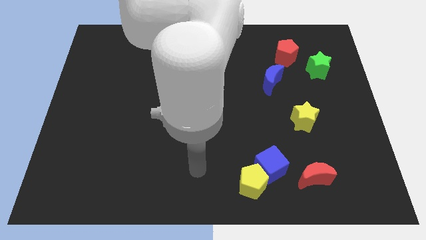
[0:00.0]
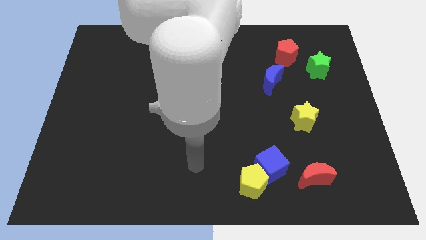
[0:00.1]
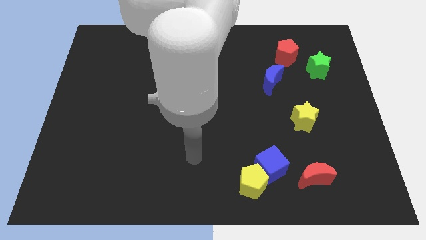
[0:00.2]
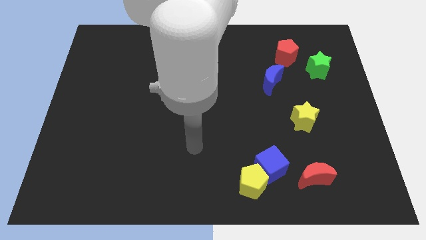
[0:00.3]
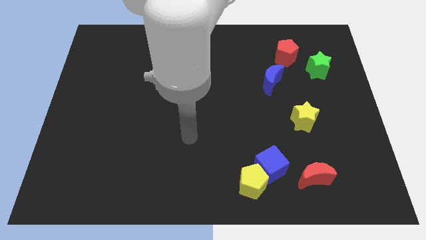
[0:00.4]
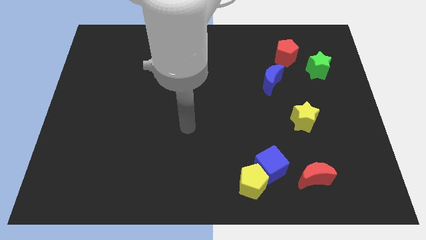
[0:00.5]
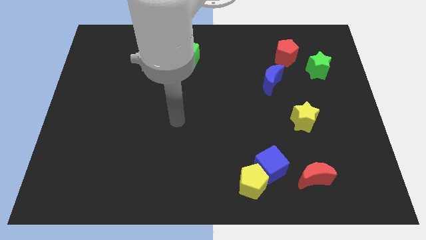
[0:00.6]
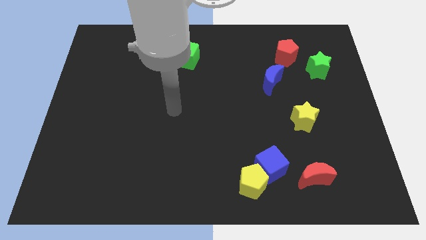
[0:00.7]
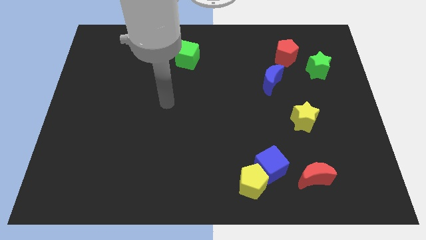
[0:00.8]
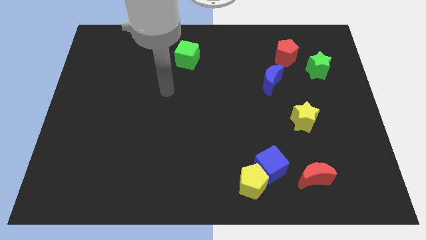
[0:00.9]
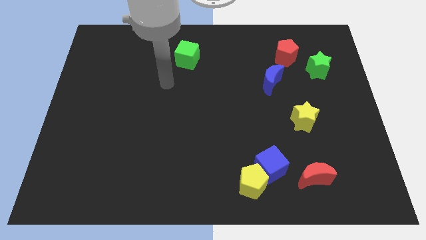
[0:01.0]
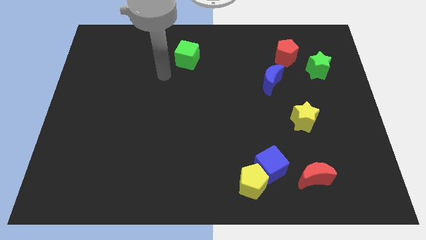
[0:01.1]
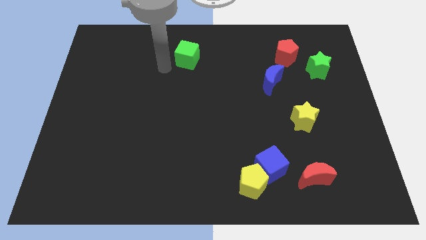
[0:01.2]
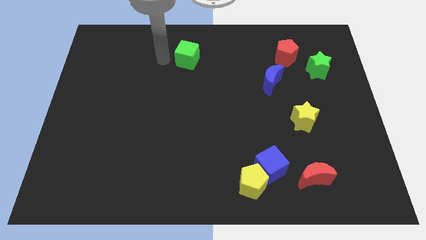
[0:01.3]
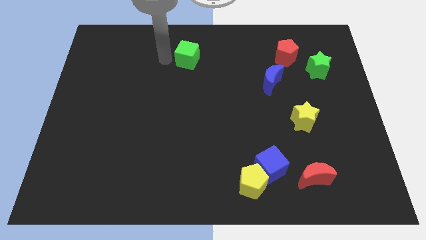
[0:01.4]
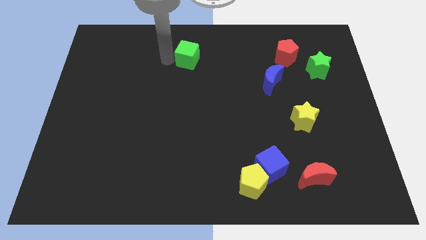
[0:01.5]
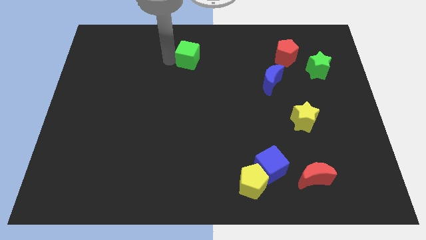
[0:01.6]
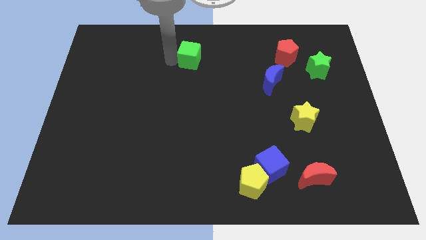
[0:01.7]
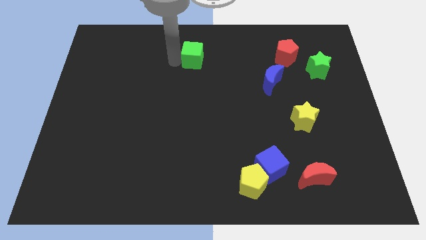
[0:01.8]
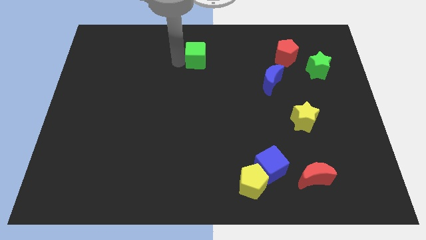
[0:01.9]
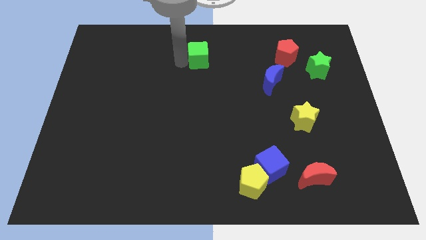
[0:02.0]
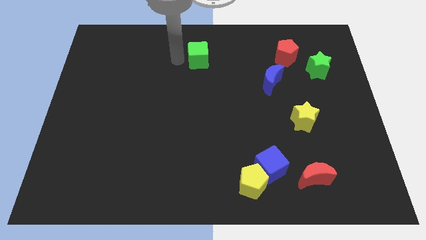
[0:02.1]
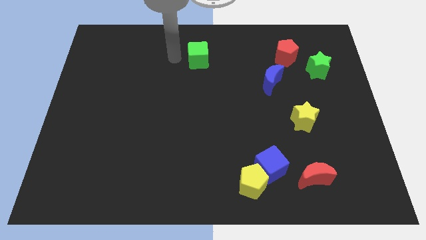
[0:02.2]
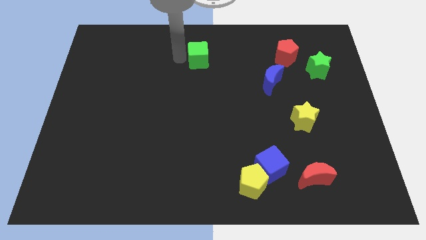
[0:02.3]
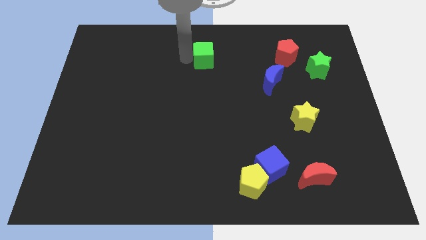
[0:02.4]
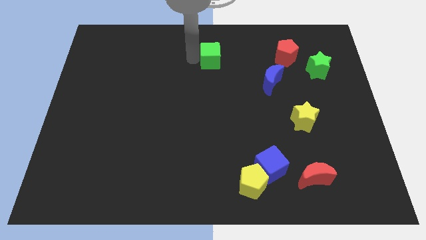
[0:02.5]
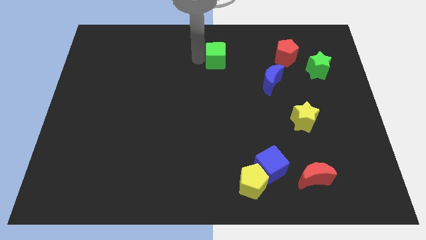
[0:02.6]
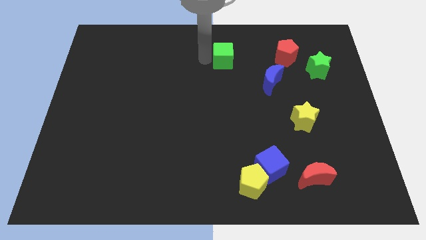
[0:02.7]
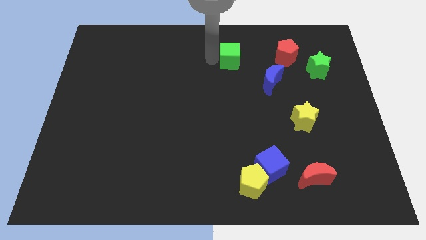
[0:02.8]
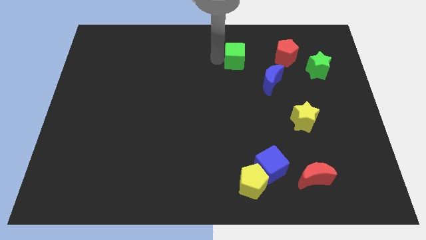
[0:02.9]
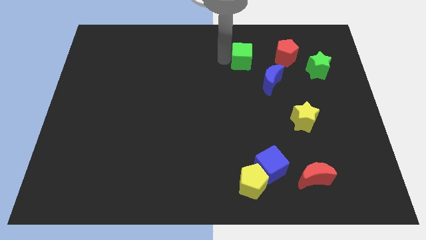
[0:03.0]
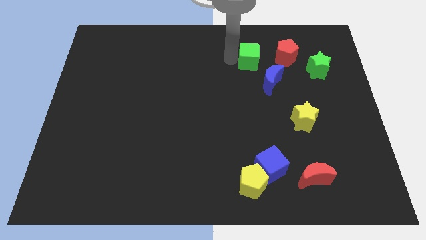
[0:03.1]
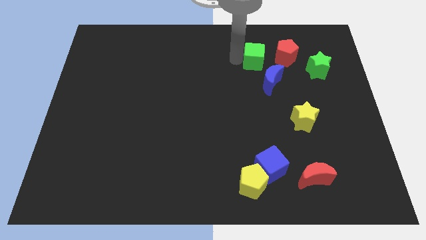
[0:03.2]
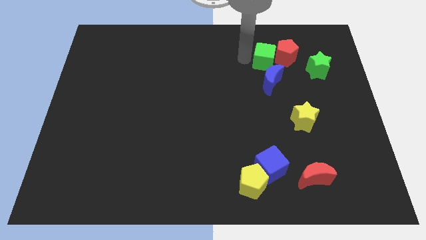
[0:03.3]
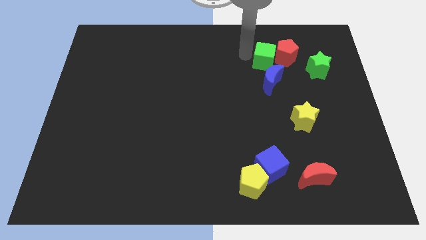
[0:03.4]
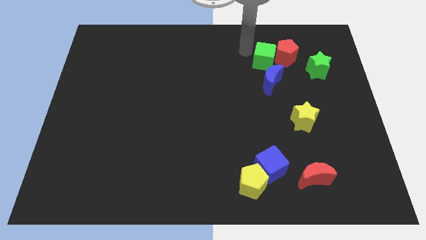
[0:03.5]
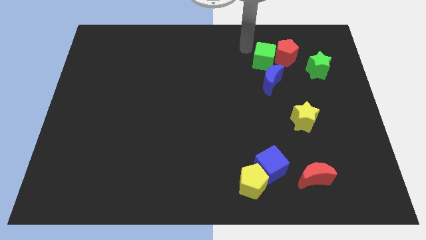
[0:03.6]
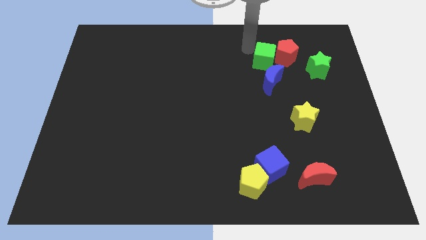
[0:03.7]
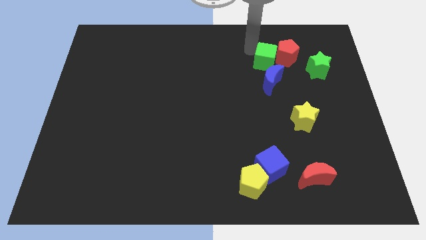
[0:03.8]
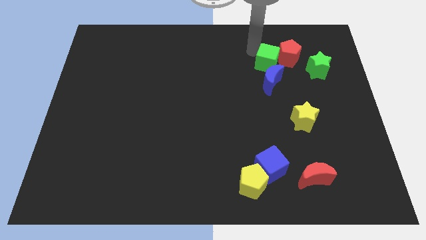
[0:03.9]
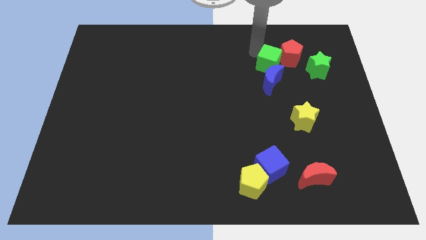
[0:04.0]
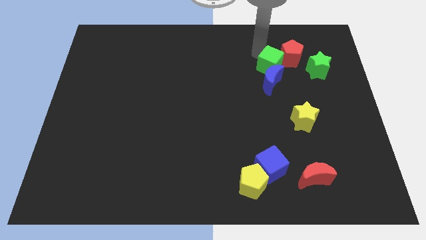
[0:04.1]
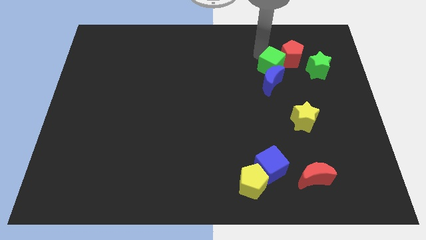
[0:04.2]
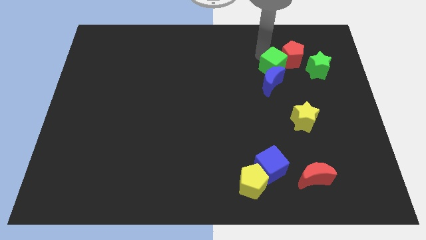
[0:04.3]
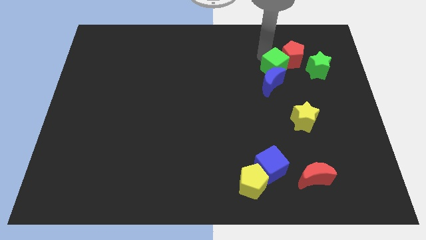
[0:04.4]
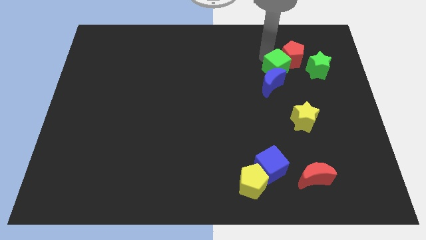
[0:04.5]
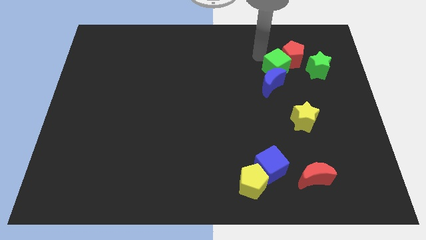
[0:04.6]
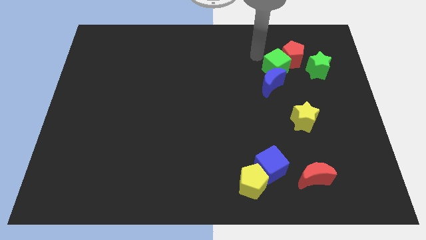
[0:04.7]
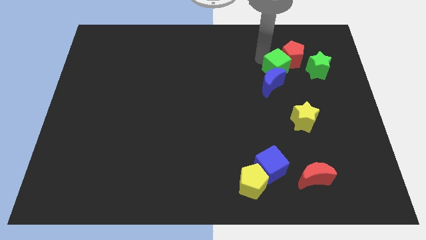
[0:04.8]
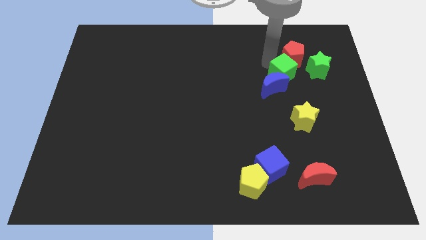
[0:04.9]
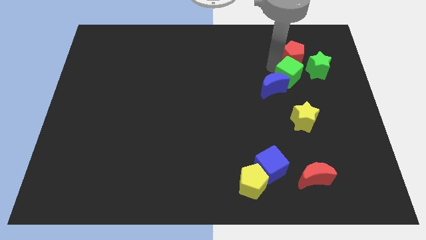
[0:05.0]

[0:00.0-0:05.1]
push the green cube to the bottom left of the green star

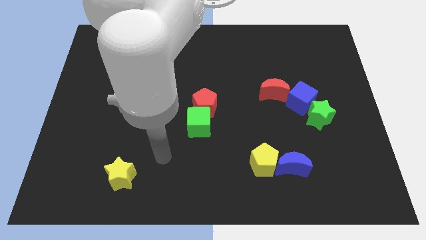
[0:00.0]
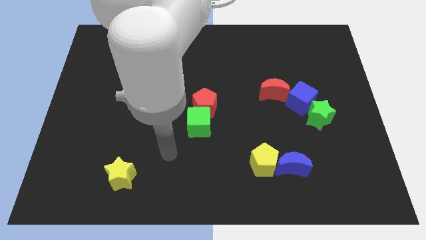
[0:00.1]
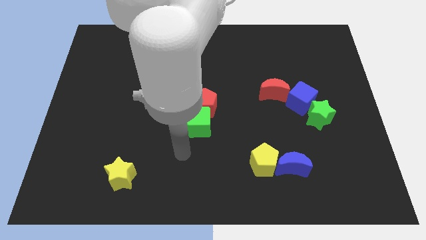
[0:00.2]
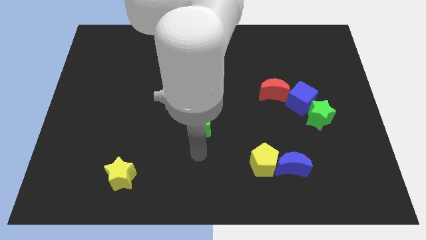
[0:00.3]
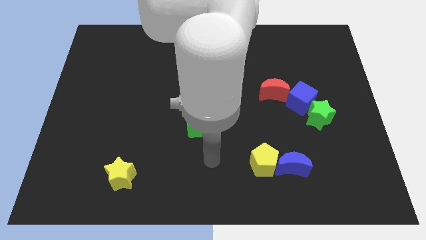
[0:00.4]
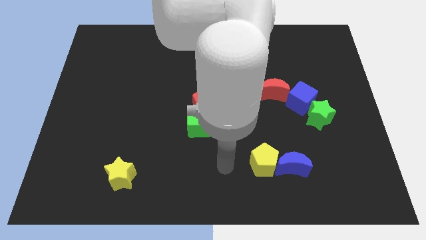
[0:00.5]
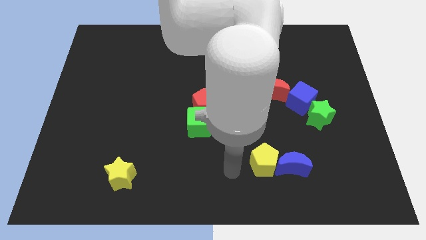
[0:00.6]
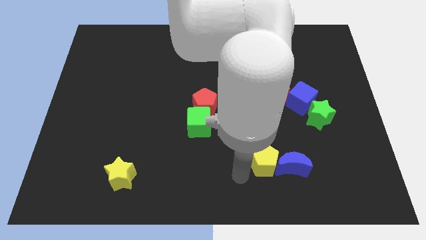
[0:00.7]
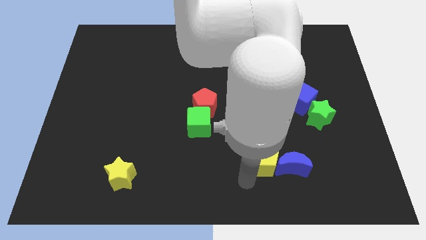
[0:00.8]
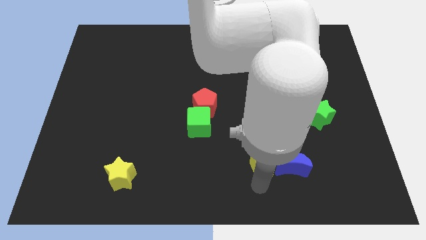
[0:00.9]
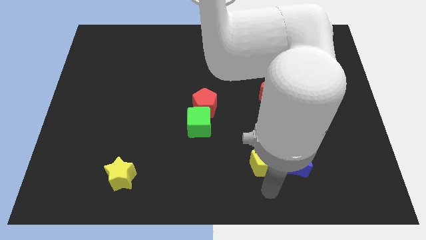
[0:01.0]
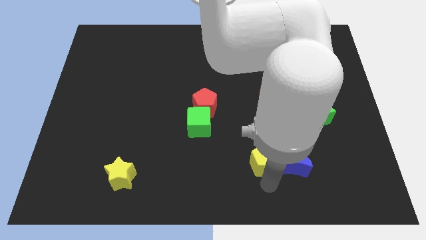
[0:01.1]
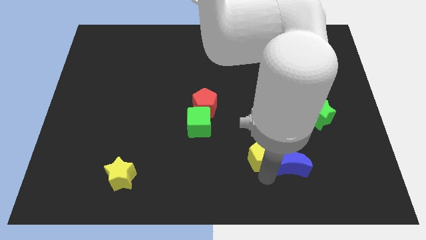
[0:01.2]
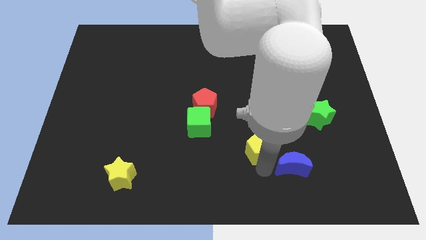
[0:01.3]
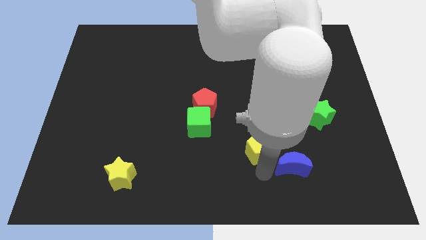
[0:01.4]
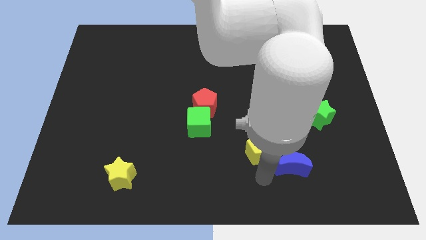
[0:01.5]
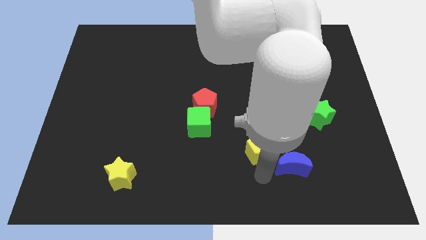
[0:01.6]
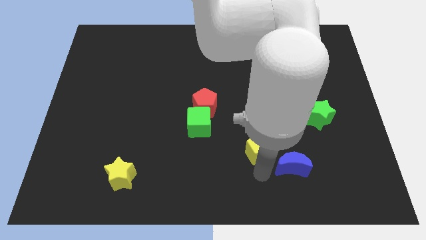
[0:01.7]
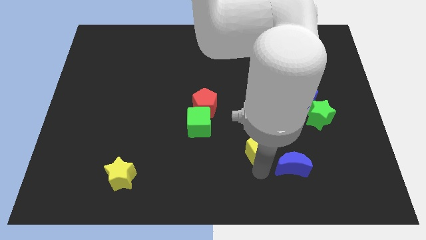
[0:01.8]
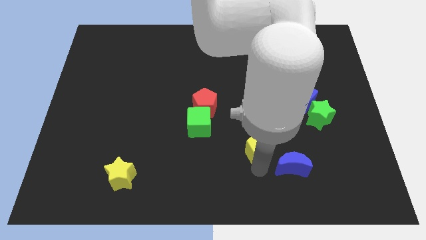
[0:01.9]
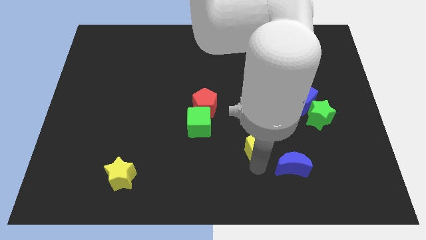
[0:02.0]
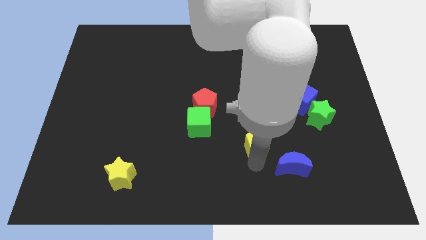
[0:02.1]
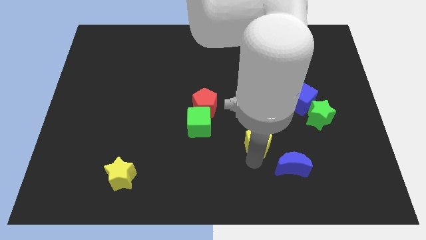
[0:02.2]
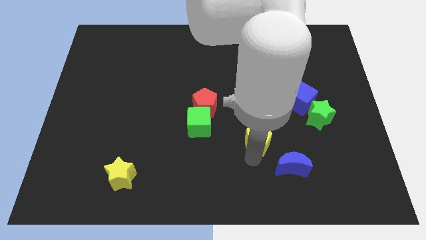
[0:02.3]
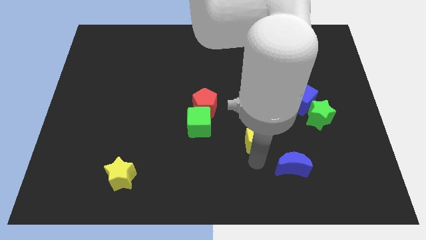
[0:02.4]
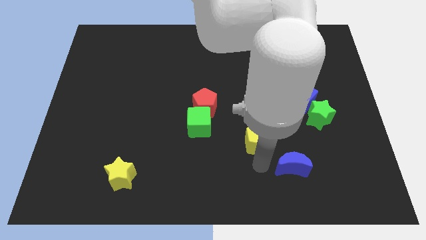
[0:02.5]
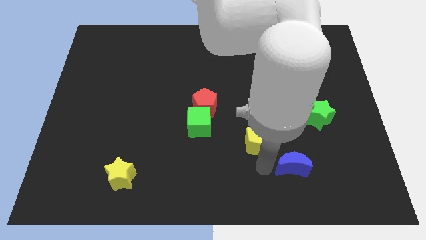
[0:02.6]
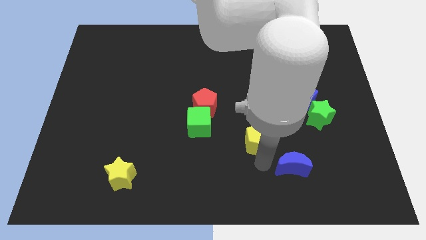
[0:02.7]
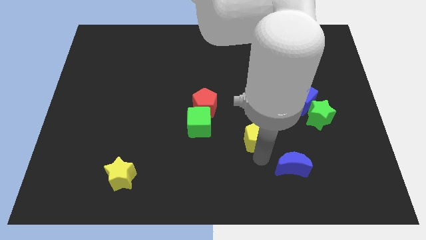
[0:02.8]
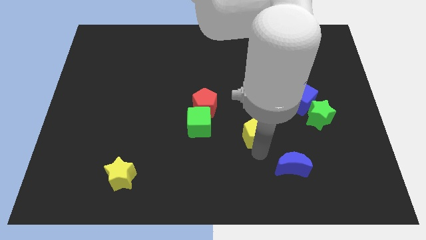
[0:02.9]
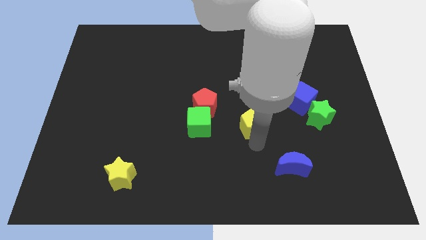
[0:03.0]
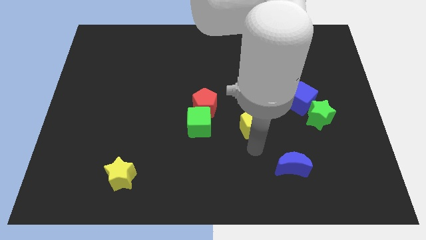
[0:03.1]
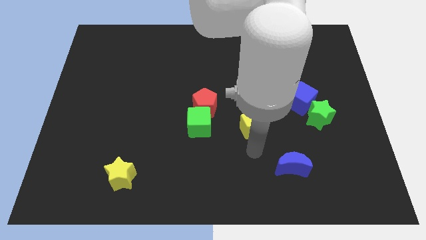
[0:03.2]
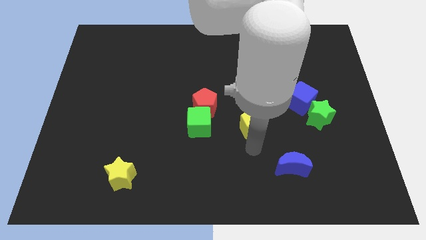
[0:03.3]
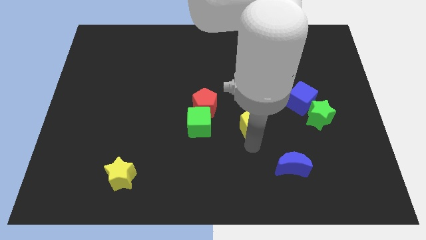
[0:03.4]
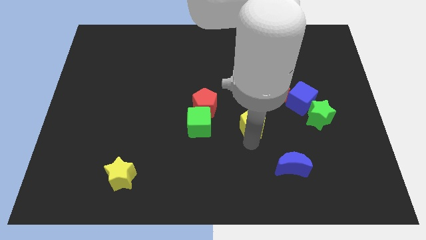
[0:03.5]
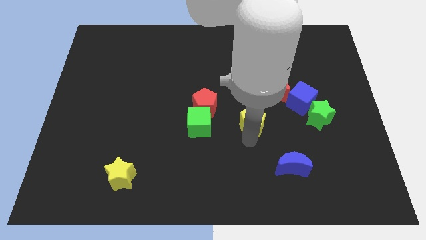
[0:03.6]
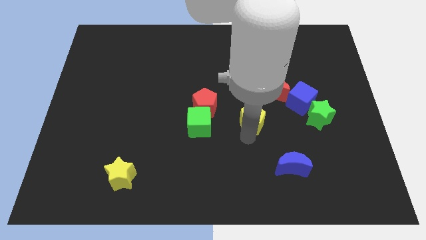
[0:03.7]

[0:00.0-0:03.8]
push the yellow pentagon right of the red pentagon
